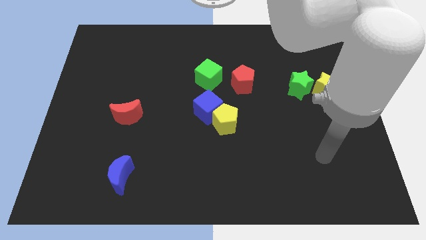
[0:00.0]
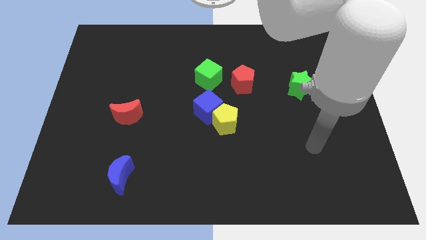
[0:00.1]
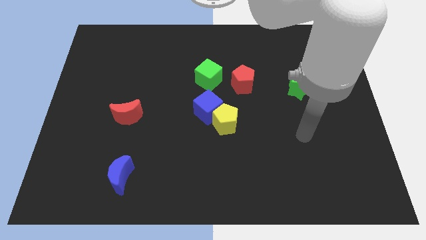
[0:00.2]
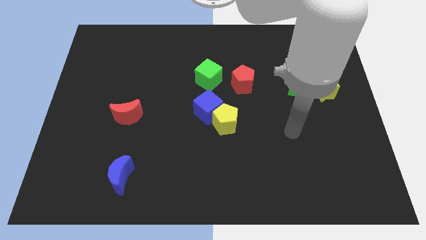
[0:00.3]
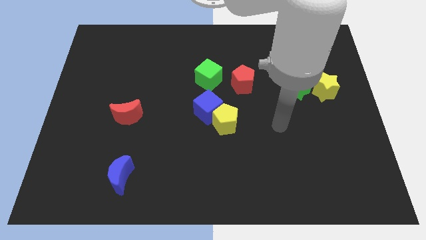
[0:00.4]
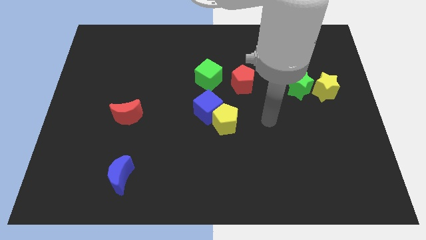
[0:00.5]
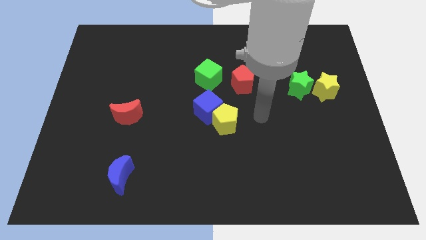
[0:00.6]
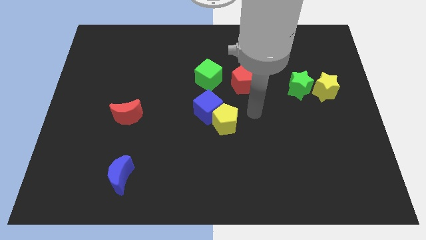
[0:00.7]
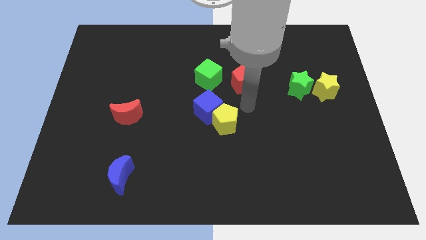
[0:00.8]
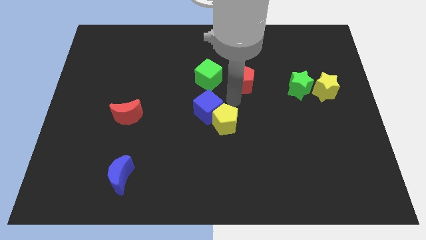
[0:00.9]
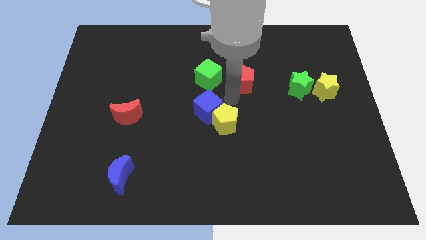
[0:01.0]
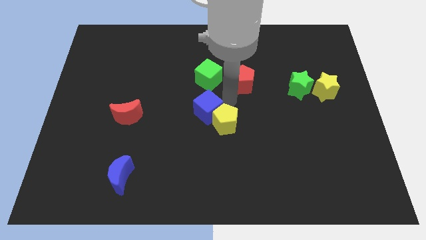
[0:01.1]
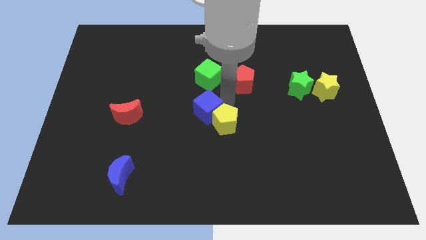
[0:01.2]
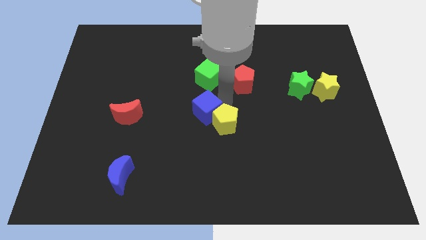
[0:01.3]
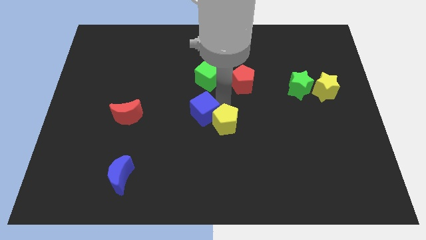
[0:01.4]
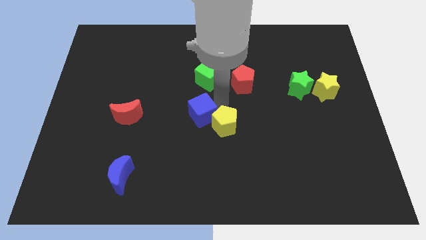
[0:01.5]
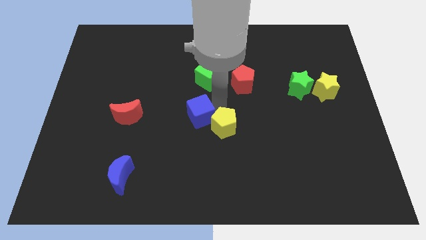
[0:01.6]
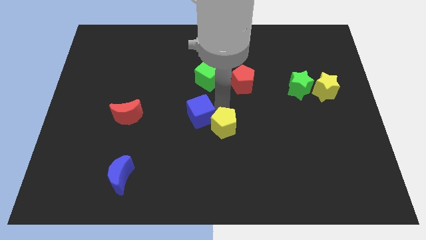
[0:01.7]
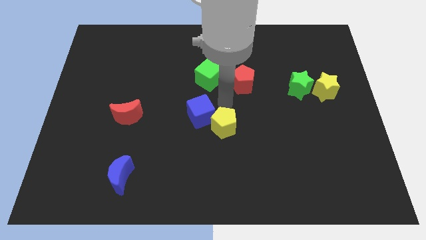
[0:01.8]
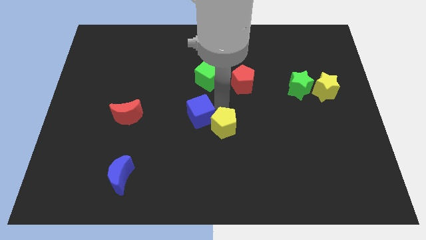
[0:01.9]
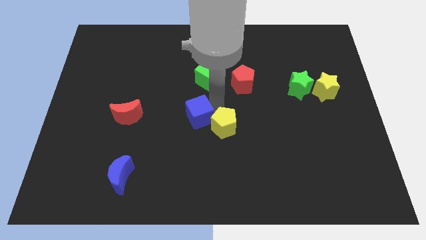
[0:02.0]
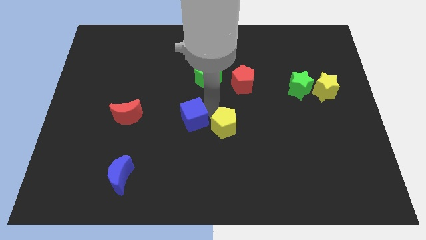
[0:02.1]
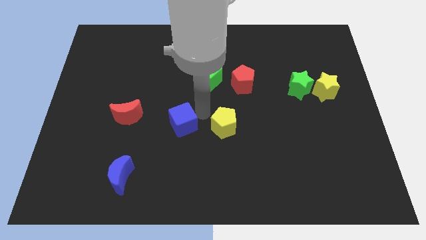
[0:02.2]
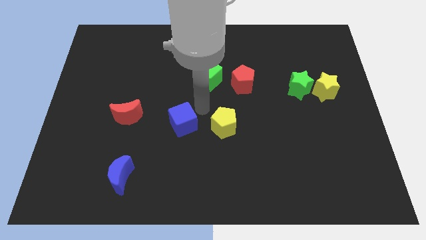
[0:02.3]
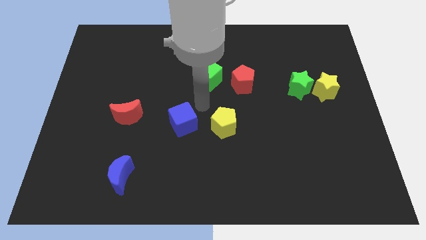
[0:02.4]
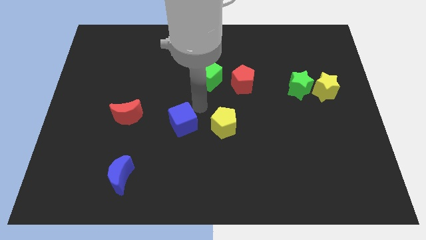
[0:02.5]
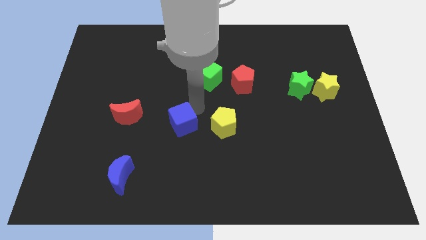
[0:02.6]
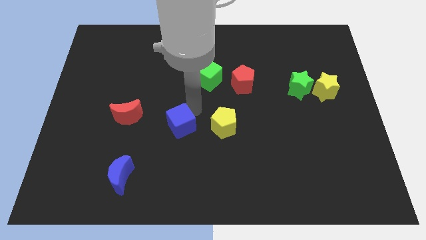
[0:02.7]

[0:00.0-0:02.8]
move the blue cube a bit down and to the left diagonally

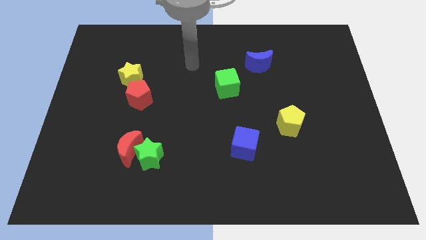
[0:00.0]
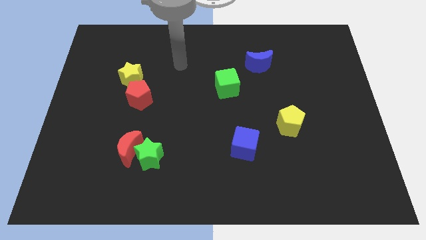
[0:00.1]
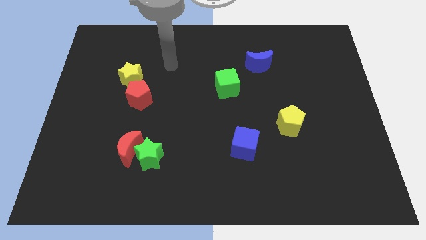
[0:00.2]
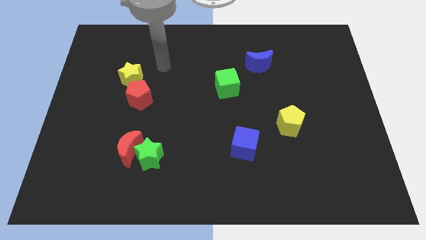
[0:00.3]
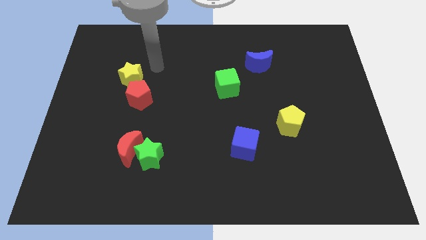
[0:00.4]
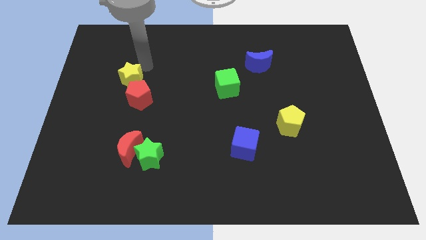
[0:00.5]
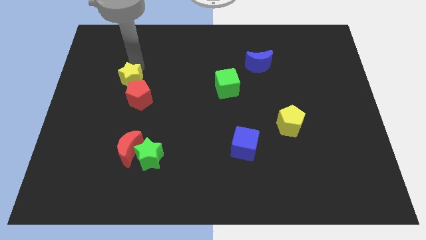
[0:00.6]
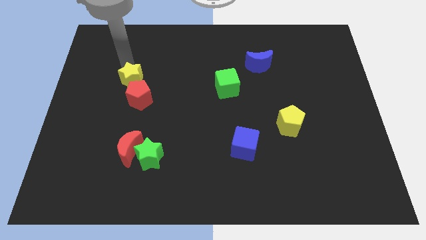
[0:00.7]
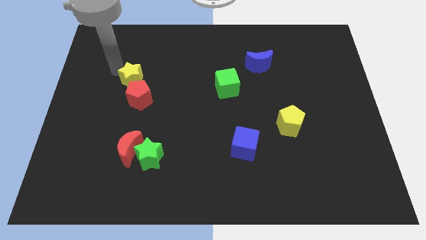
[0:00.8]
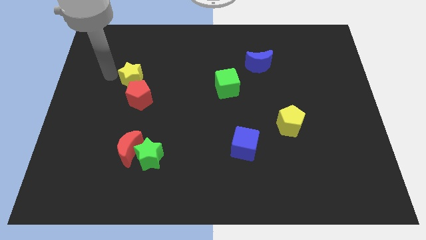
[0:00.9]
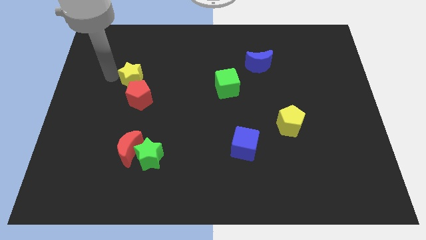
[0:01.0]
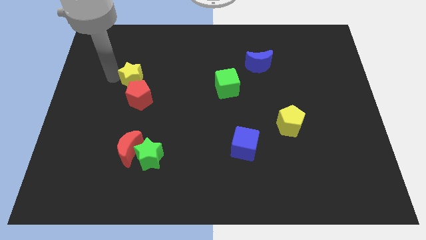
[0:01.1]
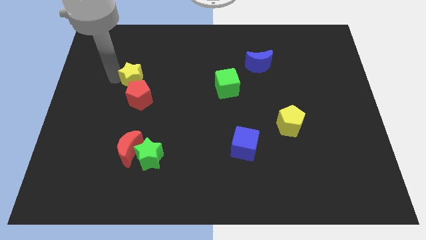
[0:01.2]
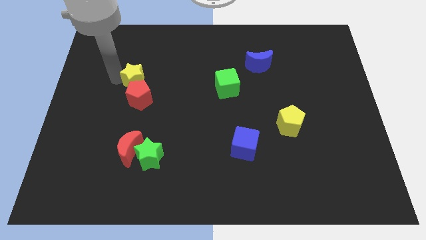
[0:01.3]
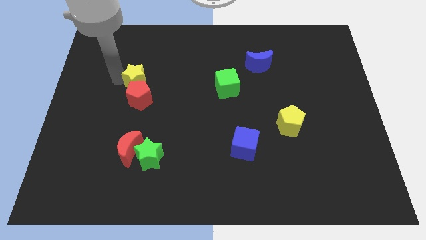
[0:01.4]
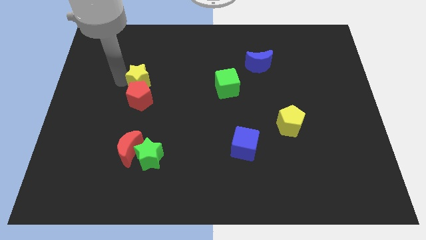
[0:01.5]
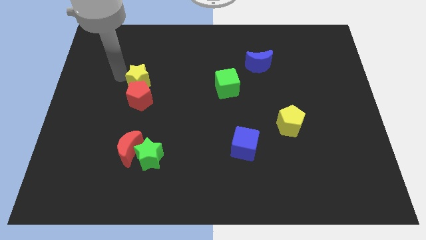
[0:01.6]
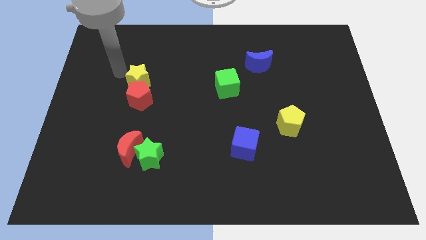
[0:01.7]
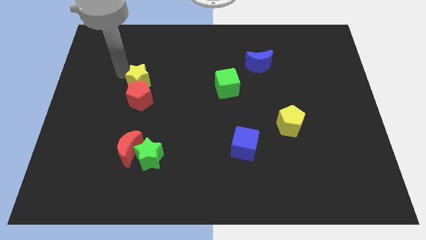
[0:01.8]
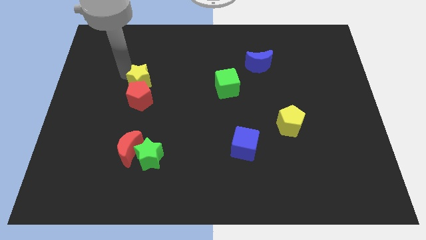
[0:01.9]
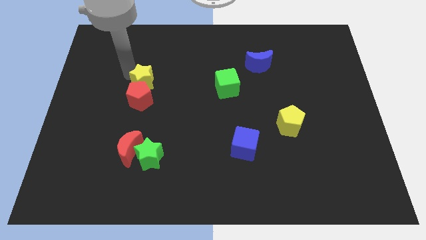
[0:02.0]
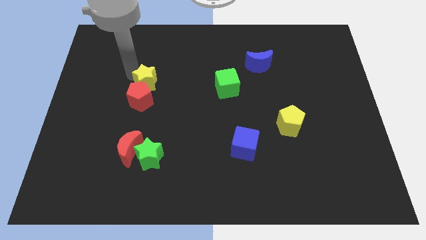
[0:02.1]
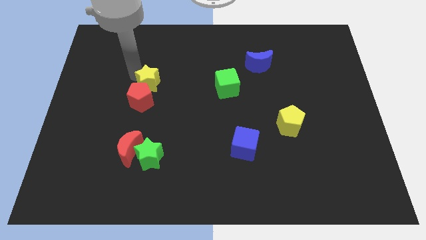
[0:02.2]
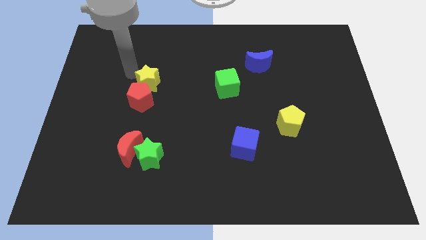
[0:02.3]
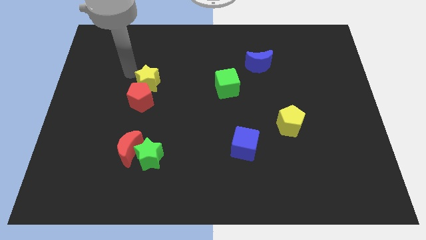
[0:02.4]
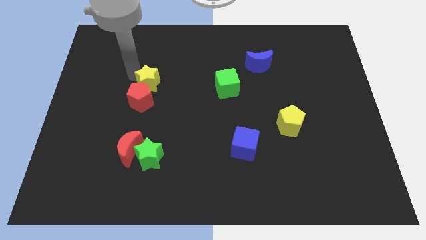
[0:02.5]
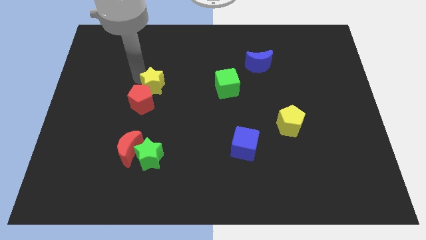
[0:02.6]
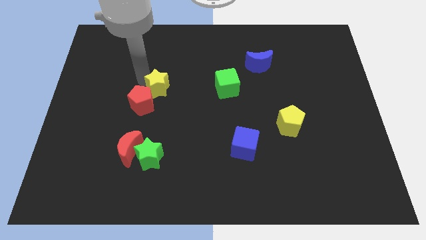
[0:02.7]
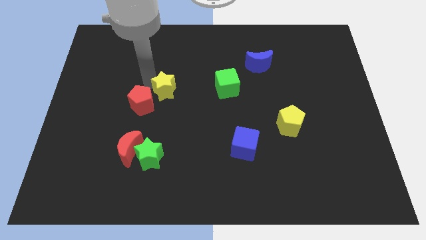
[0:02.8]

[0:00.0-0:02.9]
slightly move the yellow star down and right diagonally

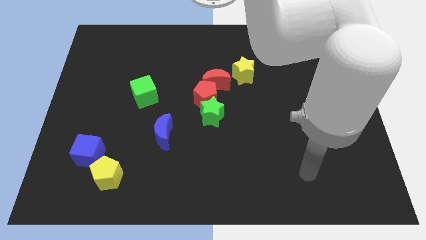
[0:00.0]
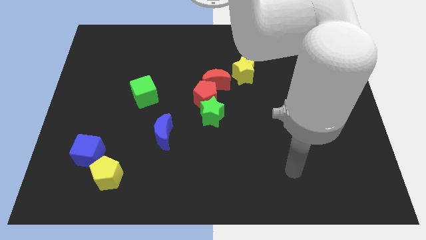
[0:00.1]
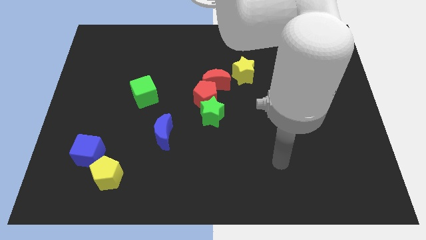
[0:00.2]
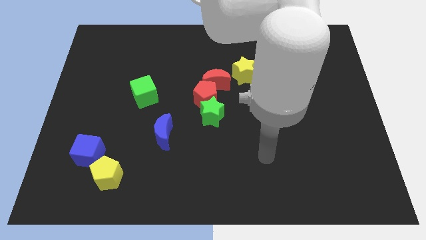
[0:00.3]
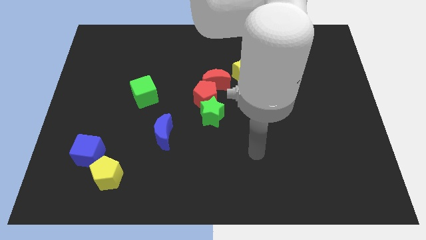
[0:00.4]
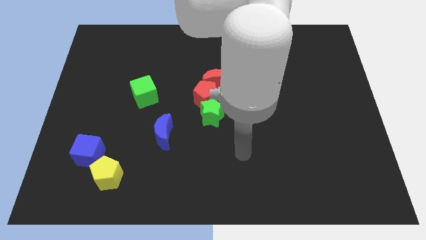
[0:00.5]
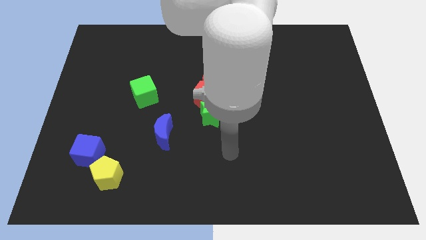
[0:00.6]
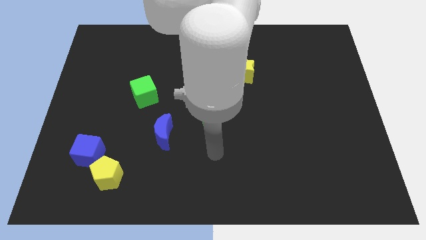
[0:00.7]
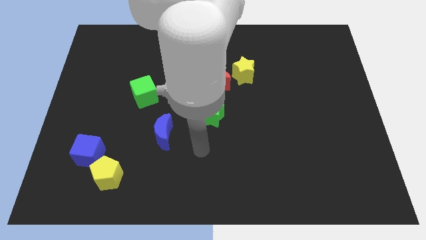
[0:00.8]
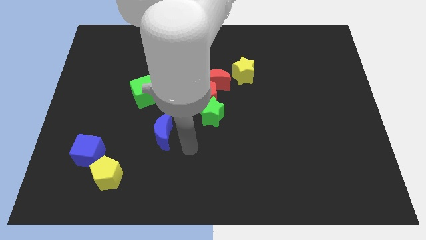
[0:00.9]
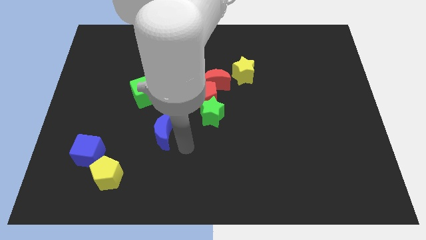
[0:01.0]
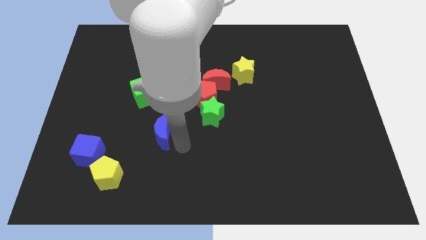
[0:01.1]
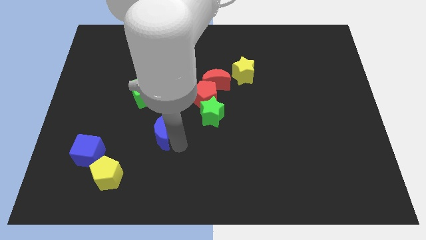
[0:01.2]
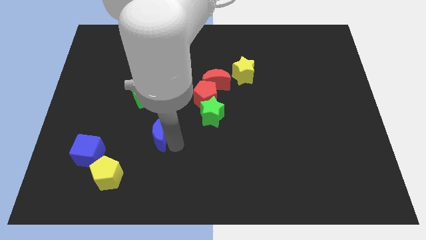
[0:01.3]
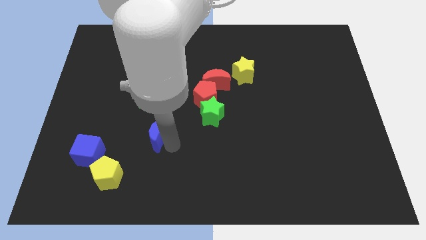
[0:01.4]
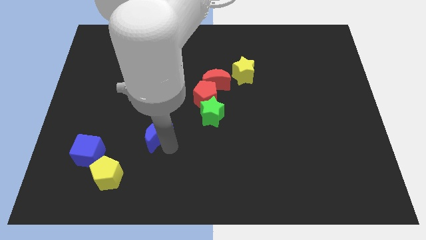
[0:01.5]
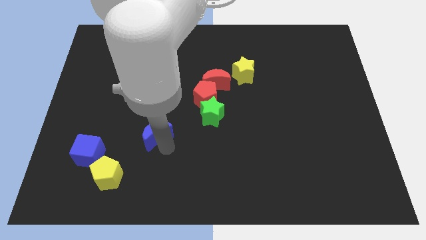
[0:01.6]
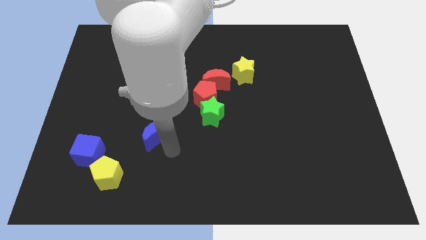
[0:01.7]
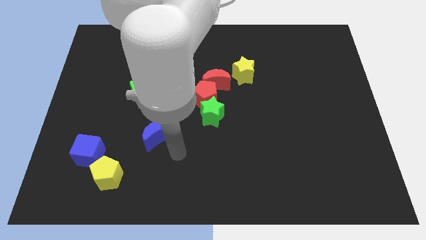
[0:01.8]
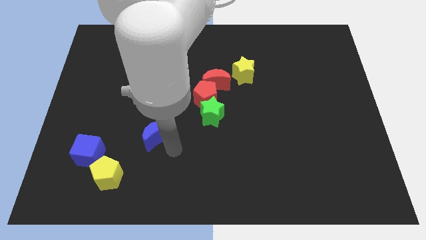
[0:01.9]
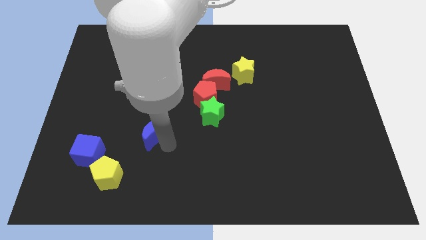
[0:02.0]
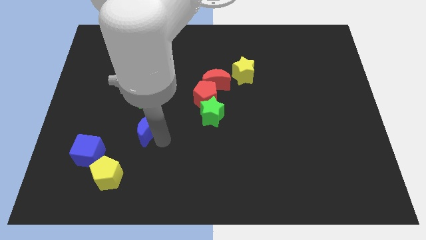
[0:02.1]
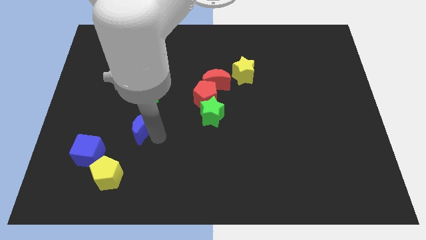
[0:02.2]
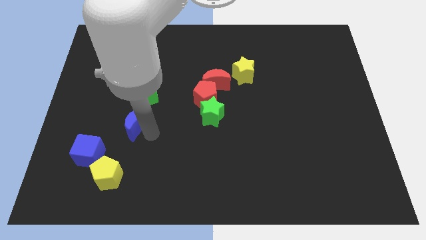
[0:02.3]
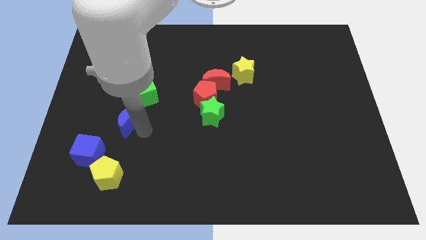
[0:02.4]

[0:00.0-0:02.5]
push the blue moon upwards and to the left somewhat

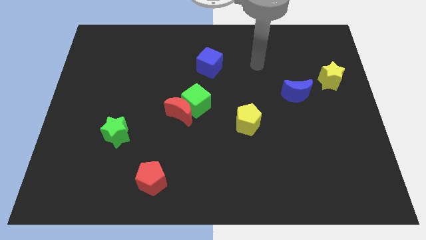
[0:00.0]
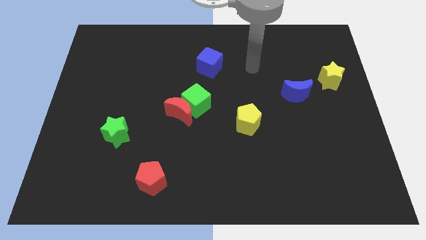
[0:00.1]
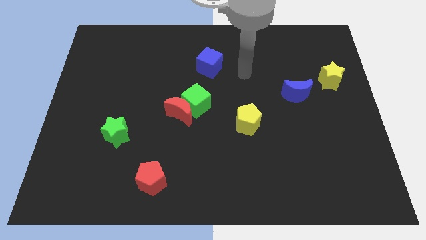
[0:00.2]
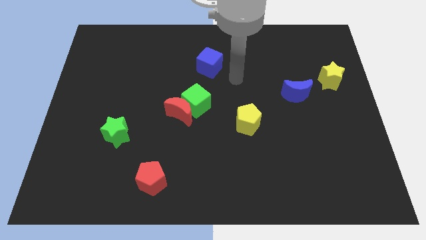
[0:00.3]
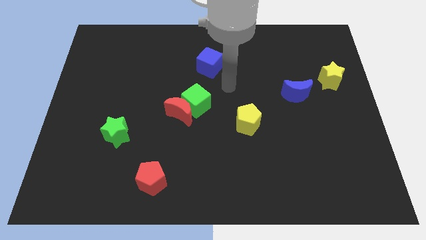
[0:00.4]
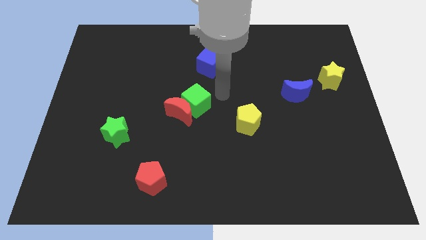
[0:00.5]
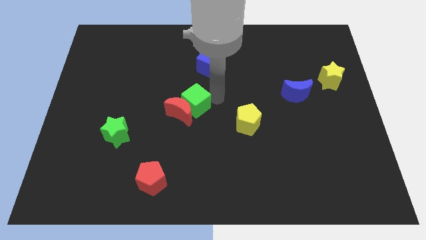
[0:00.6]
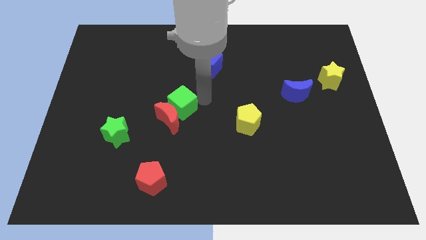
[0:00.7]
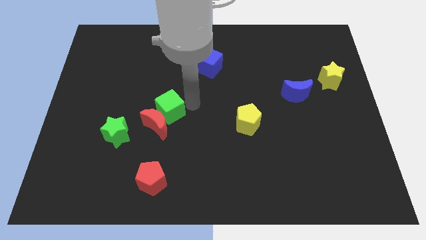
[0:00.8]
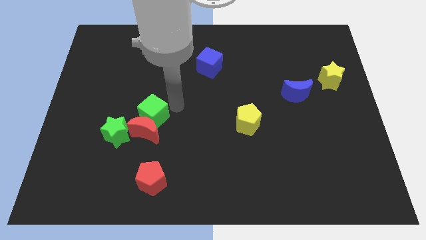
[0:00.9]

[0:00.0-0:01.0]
slightly move the red moon down and then to the left
